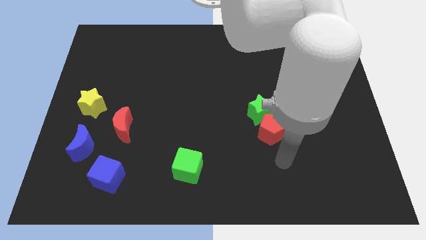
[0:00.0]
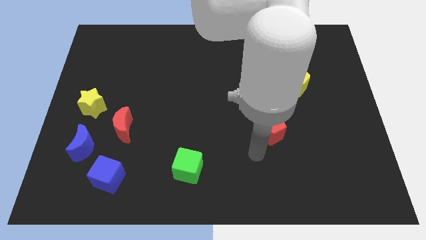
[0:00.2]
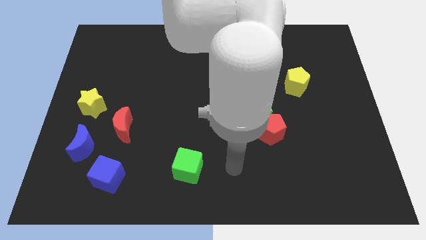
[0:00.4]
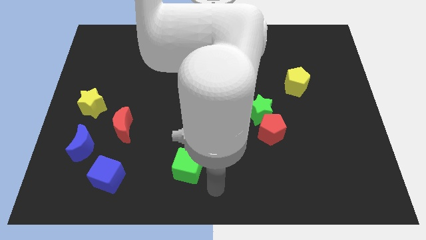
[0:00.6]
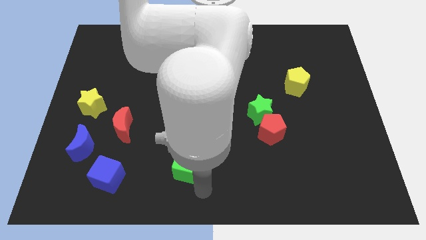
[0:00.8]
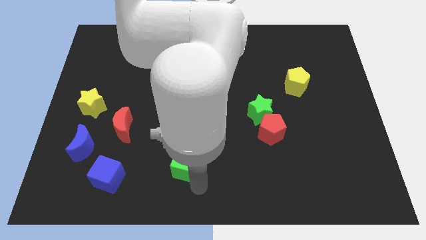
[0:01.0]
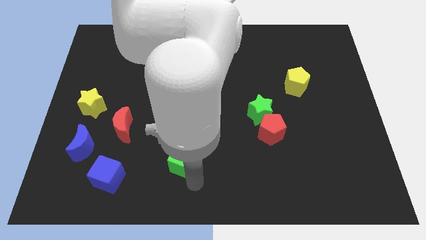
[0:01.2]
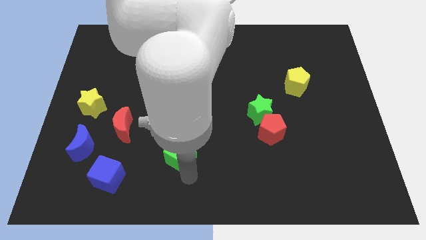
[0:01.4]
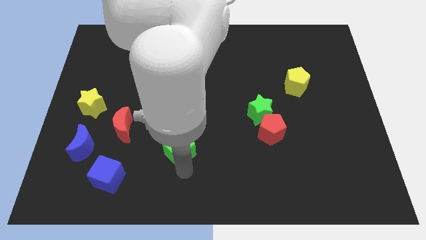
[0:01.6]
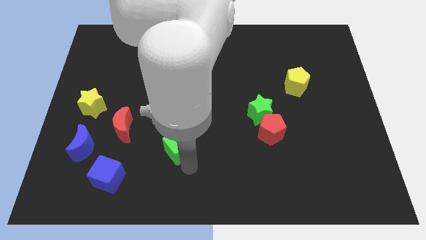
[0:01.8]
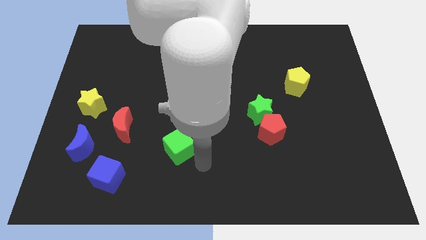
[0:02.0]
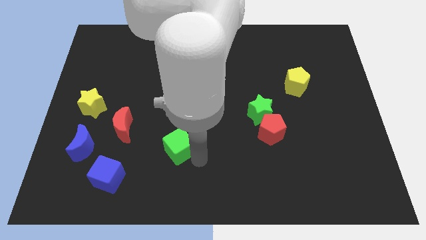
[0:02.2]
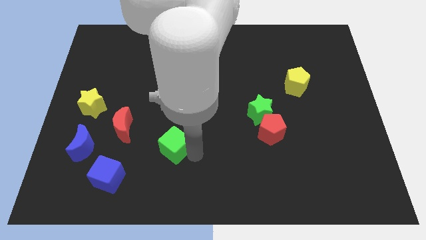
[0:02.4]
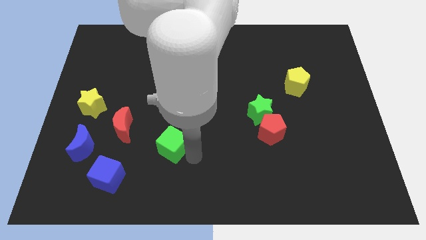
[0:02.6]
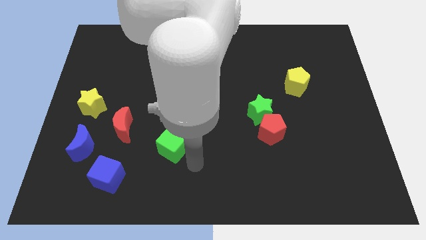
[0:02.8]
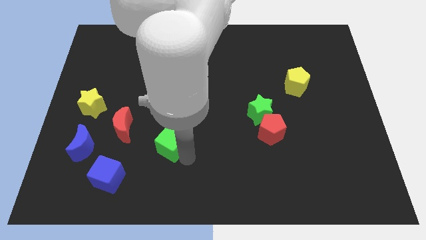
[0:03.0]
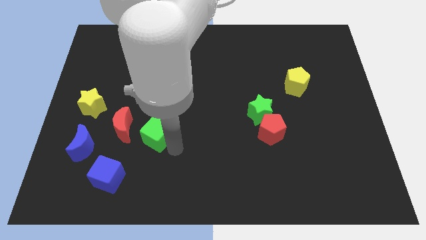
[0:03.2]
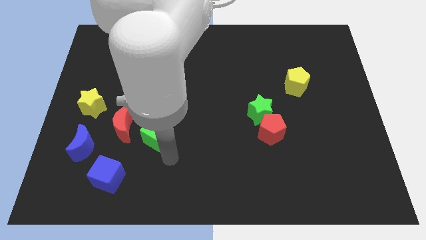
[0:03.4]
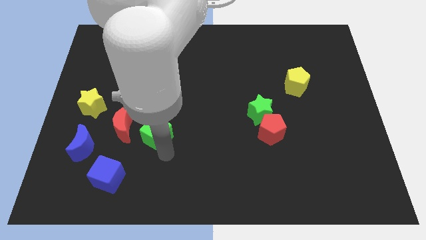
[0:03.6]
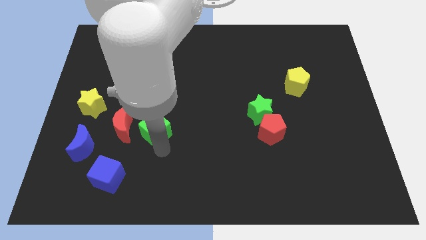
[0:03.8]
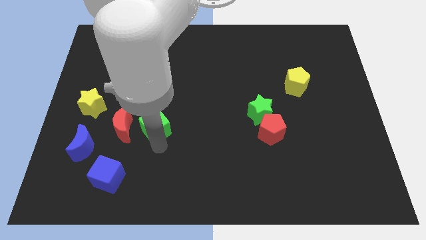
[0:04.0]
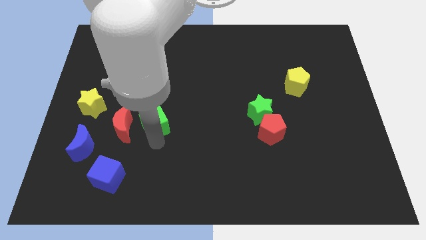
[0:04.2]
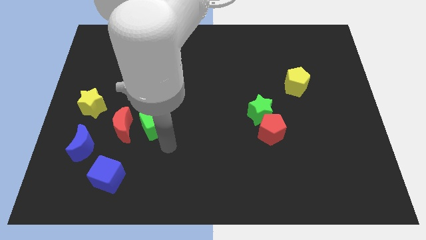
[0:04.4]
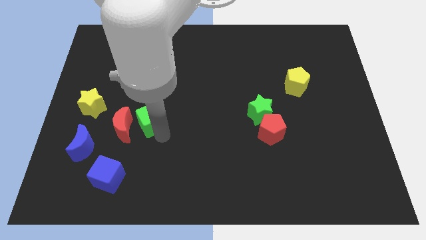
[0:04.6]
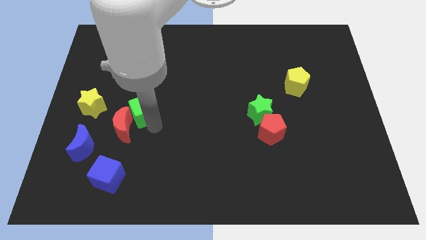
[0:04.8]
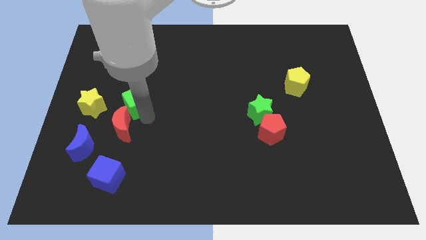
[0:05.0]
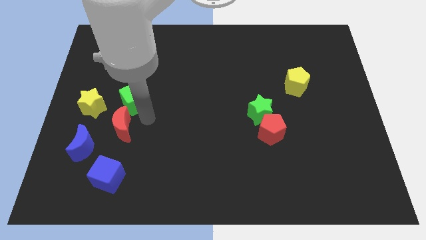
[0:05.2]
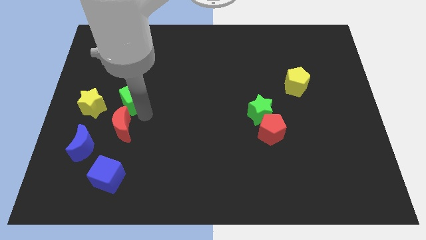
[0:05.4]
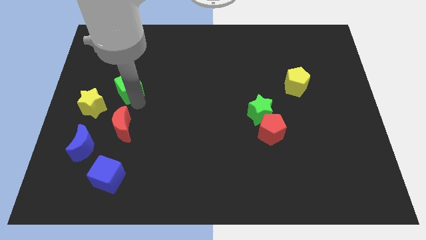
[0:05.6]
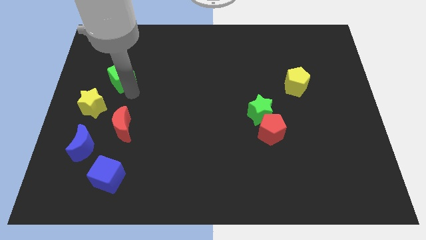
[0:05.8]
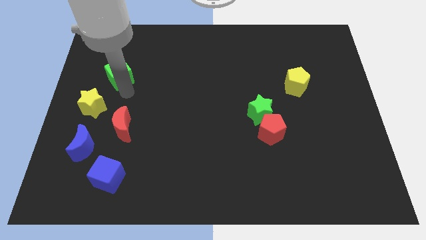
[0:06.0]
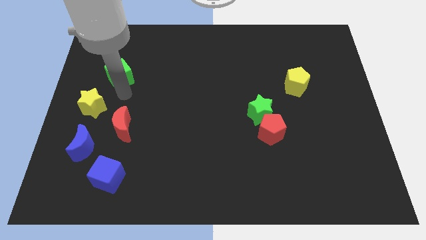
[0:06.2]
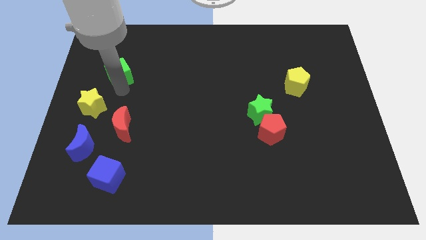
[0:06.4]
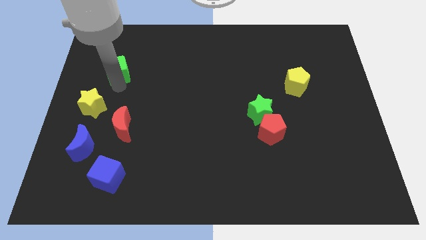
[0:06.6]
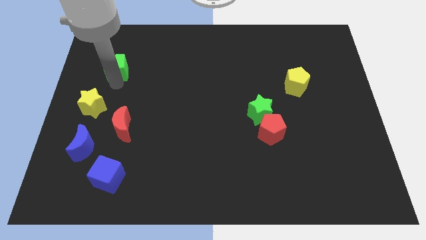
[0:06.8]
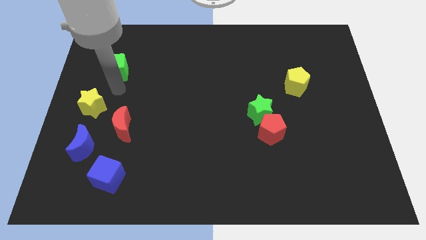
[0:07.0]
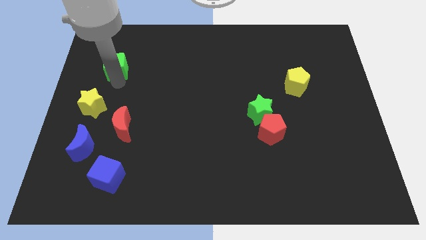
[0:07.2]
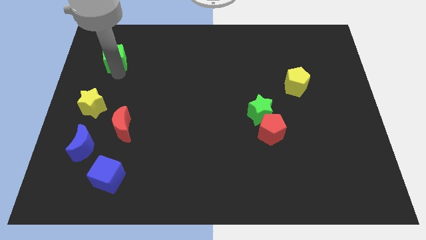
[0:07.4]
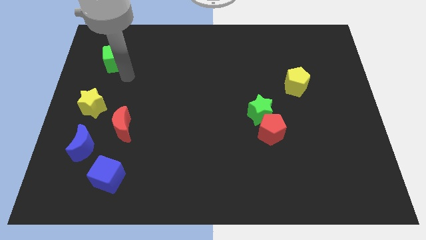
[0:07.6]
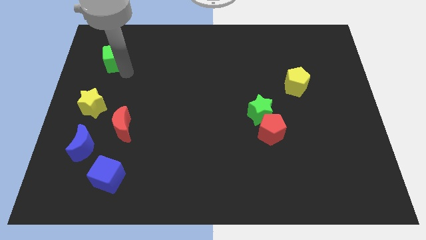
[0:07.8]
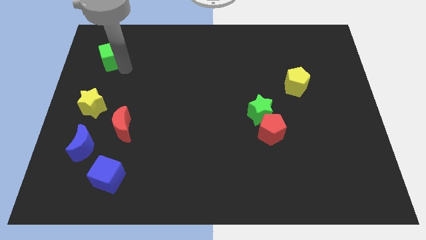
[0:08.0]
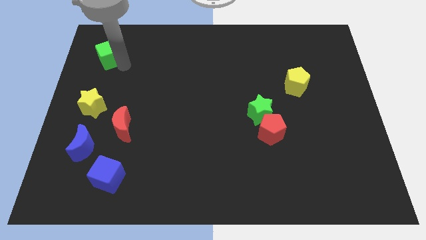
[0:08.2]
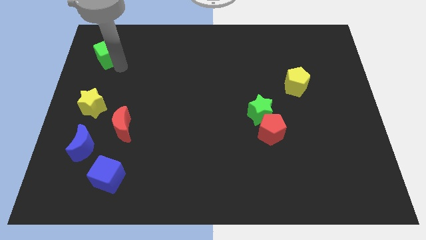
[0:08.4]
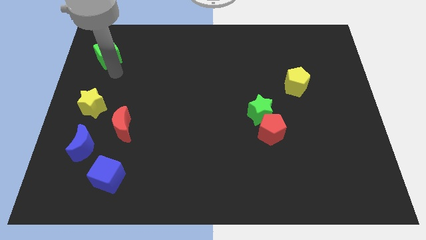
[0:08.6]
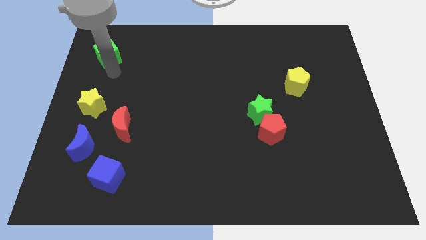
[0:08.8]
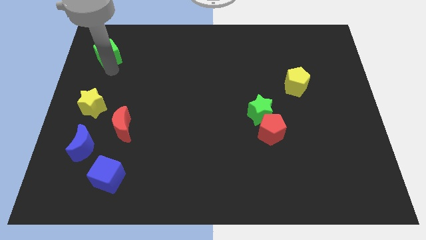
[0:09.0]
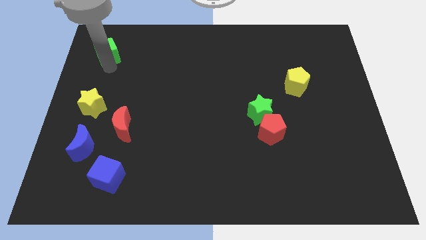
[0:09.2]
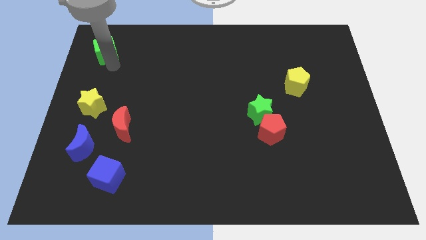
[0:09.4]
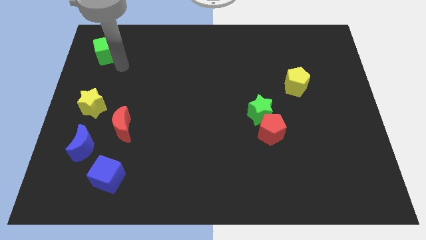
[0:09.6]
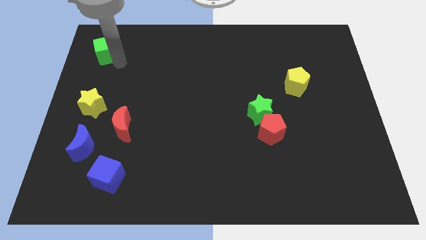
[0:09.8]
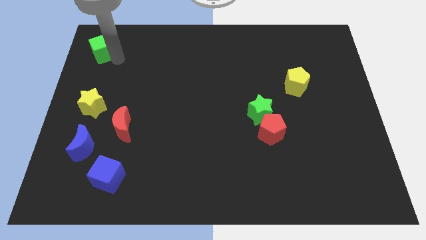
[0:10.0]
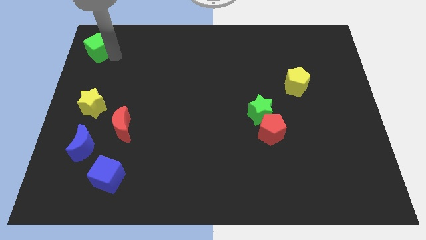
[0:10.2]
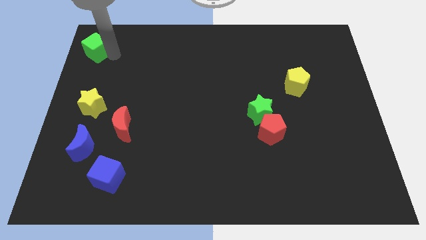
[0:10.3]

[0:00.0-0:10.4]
move the green cube to the upper left corner

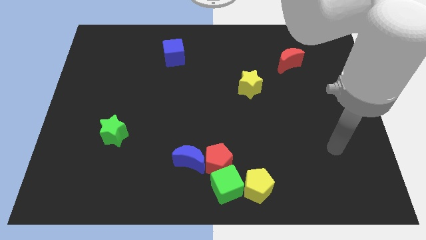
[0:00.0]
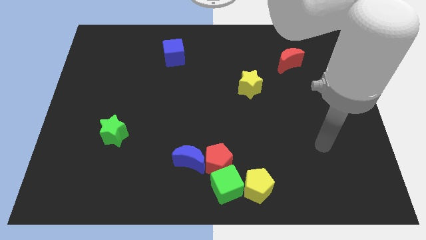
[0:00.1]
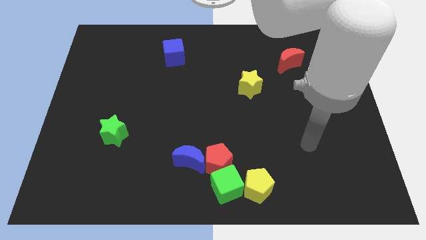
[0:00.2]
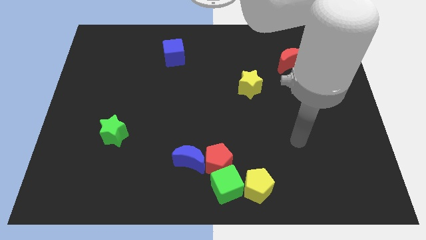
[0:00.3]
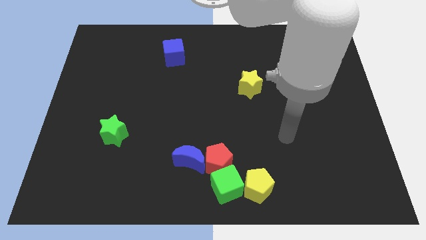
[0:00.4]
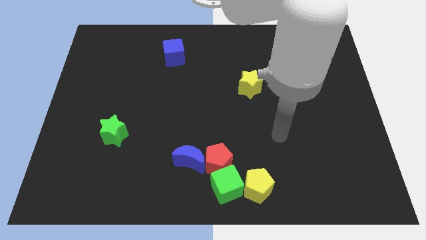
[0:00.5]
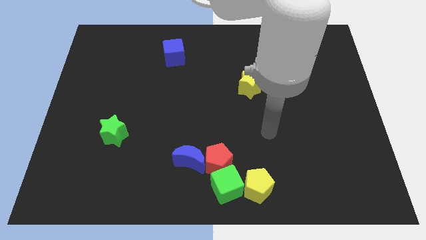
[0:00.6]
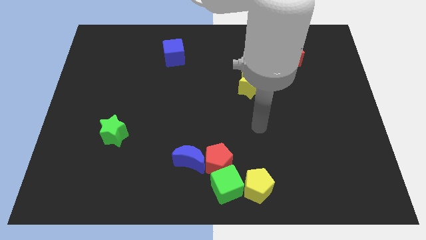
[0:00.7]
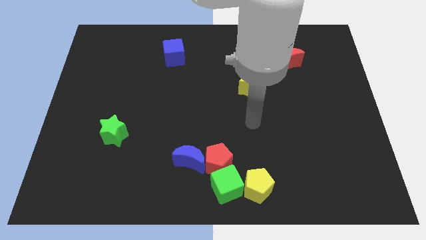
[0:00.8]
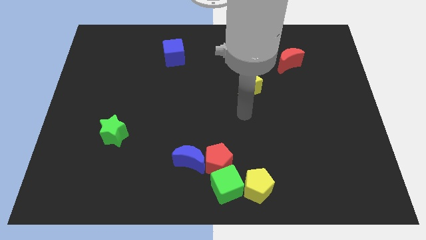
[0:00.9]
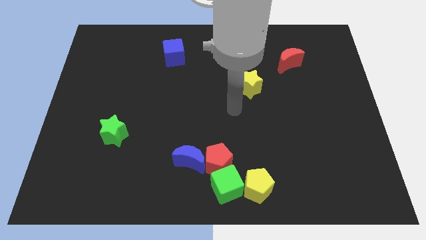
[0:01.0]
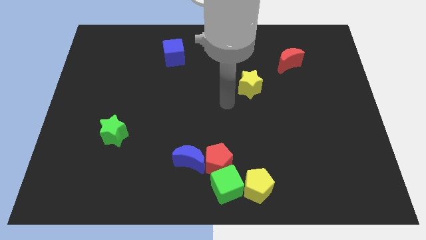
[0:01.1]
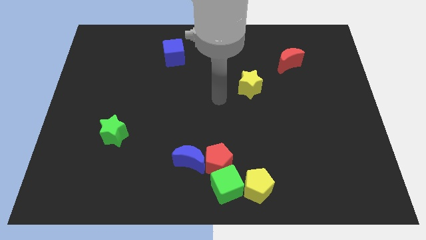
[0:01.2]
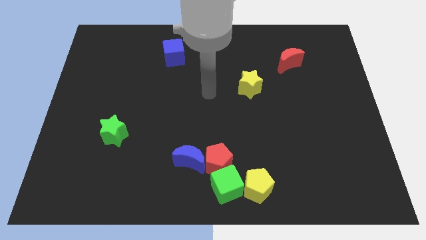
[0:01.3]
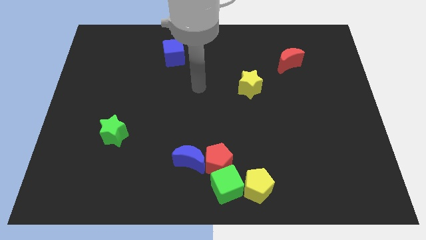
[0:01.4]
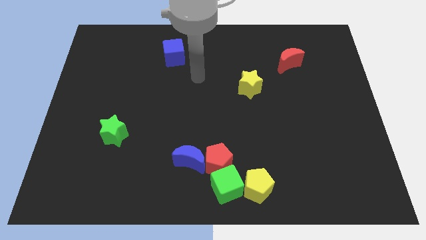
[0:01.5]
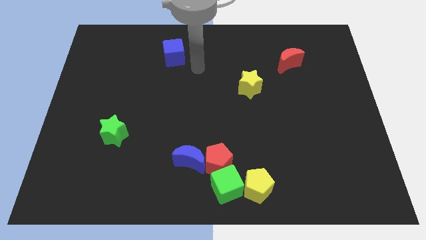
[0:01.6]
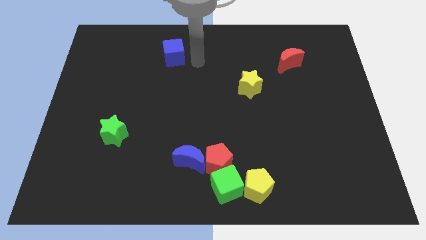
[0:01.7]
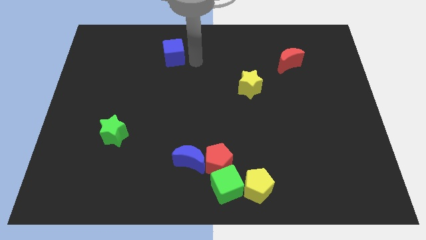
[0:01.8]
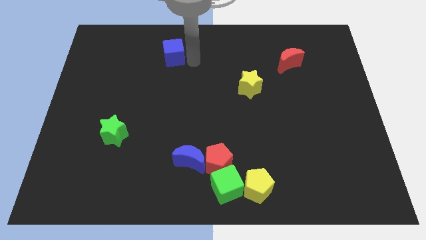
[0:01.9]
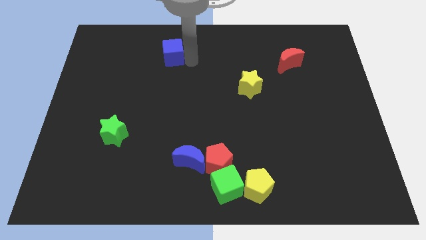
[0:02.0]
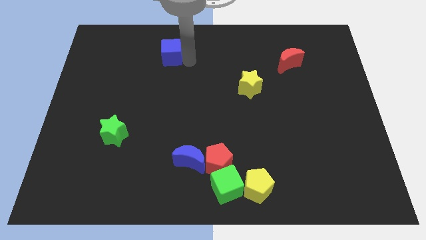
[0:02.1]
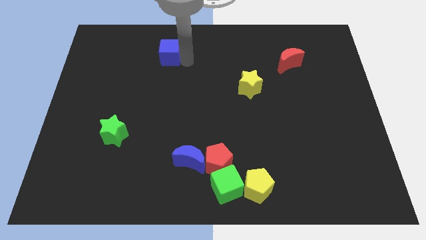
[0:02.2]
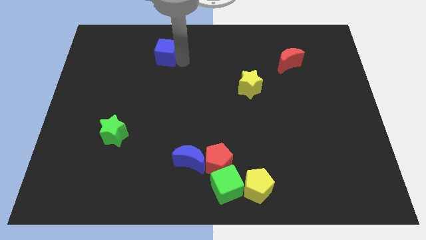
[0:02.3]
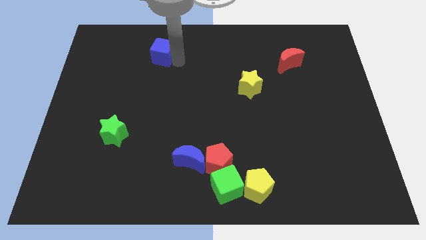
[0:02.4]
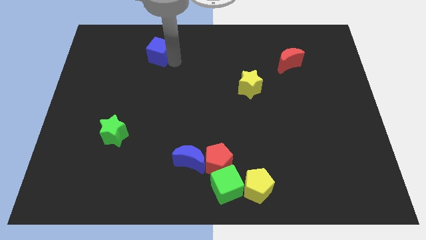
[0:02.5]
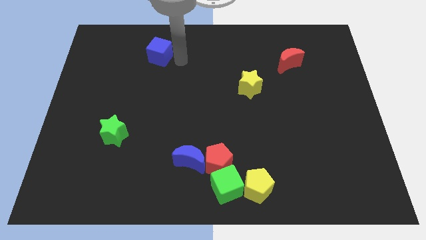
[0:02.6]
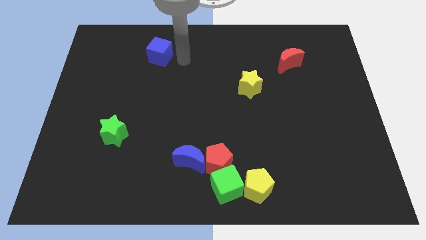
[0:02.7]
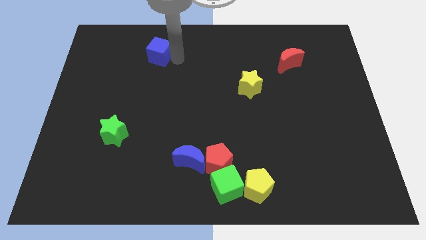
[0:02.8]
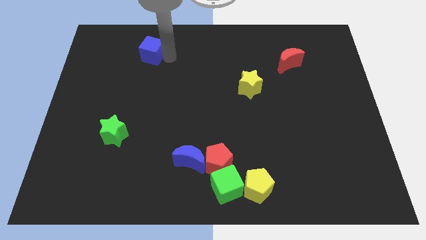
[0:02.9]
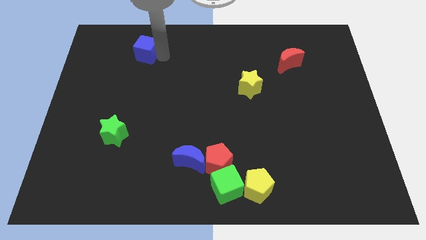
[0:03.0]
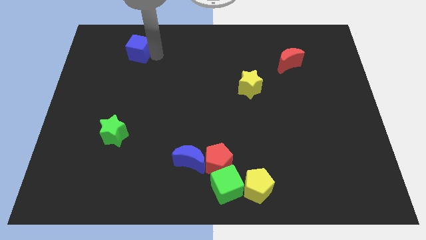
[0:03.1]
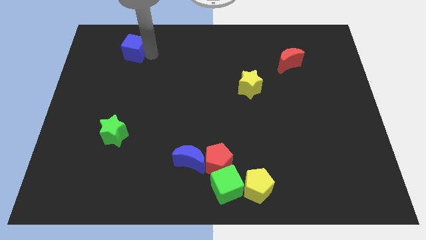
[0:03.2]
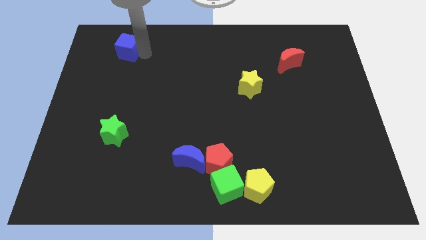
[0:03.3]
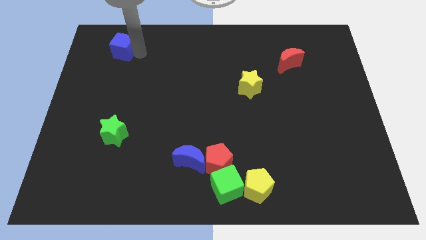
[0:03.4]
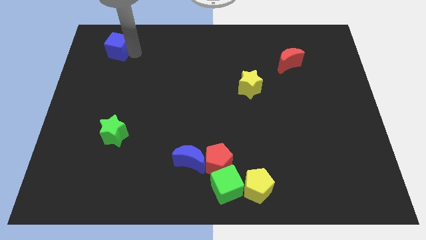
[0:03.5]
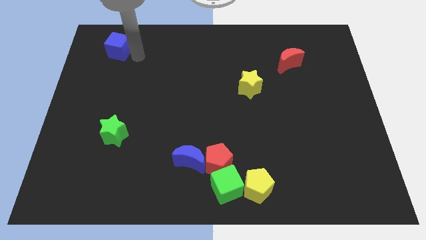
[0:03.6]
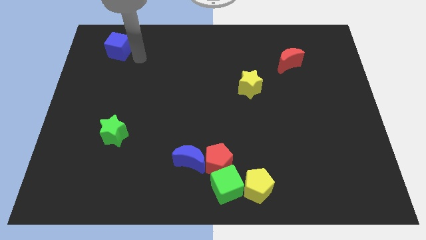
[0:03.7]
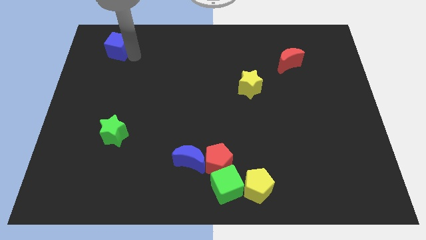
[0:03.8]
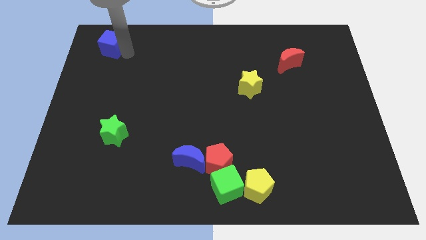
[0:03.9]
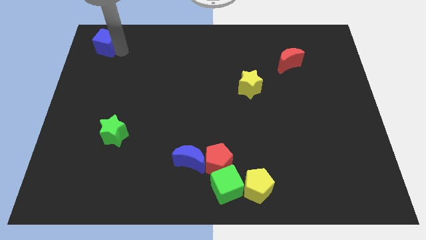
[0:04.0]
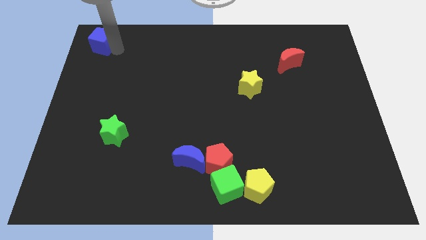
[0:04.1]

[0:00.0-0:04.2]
move the blue cube to the upper left corner
